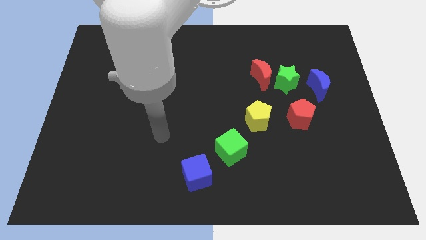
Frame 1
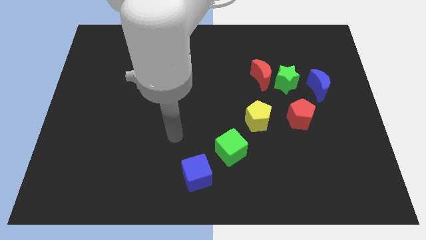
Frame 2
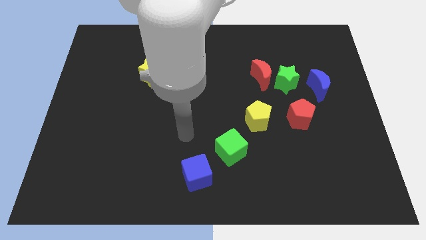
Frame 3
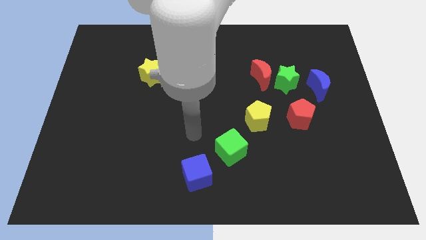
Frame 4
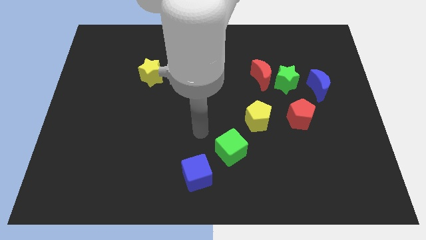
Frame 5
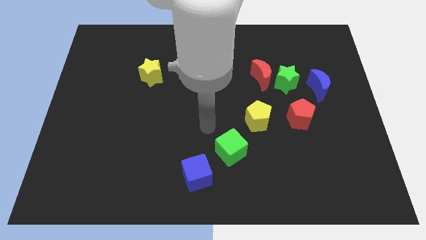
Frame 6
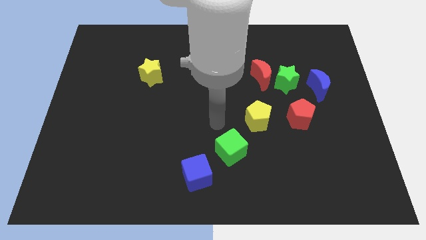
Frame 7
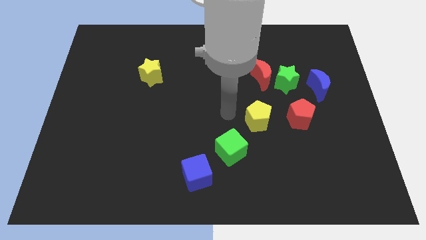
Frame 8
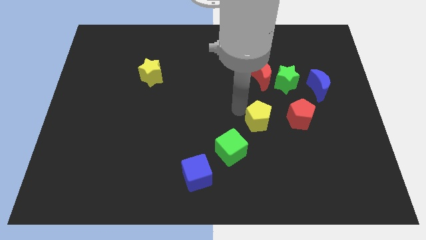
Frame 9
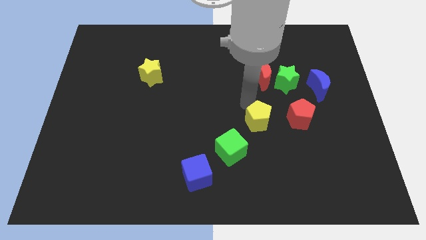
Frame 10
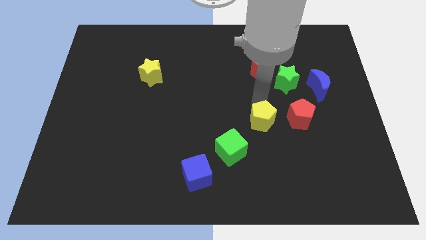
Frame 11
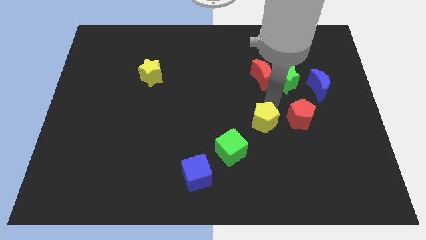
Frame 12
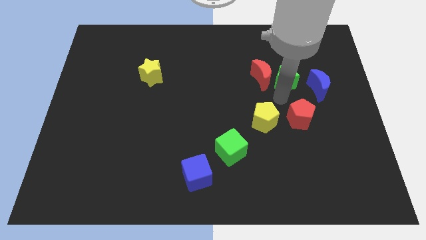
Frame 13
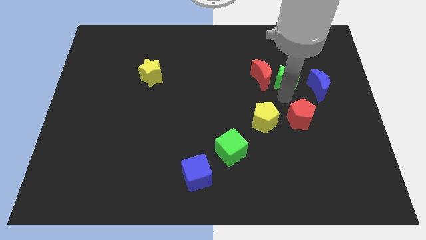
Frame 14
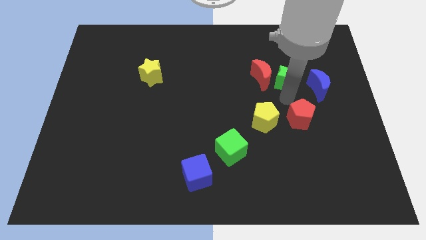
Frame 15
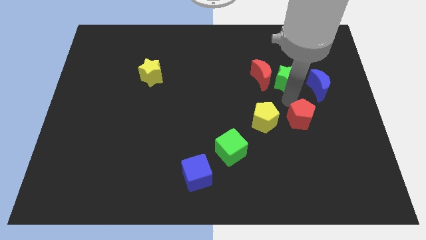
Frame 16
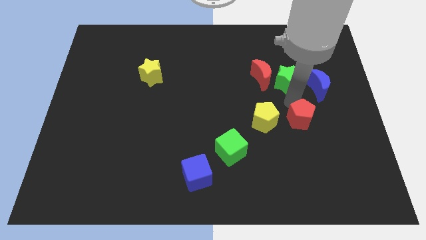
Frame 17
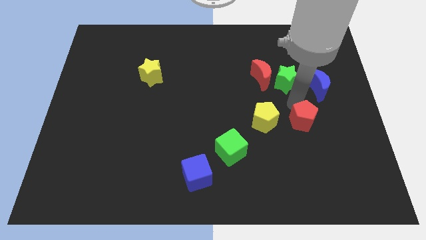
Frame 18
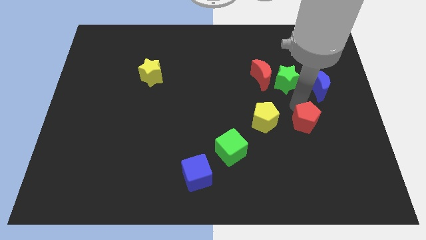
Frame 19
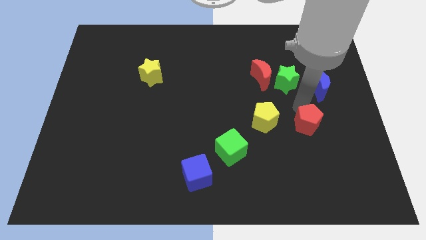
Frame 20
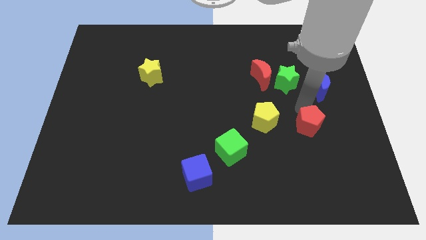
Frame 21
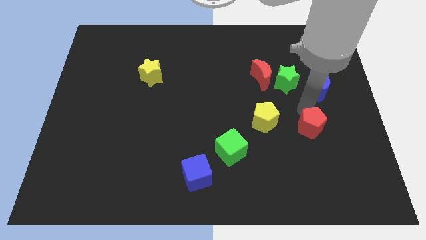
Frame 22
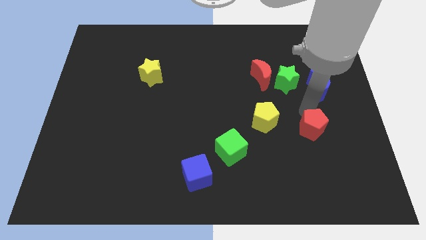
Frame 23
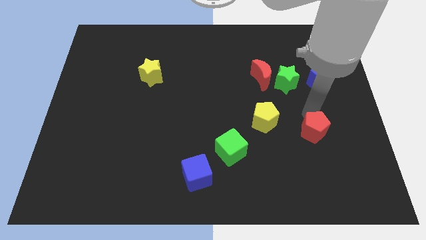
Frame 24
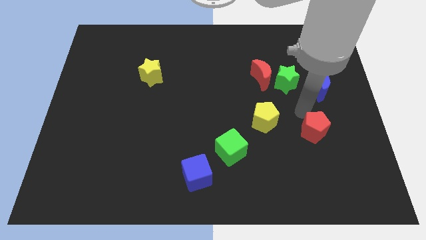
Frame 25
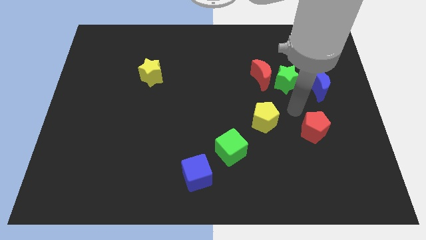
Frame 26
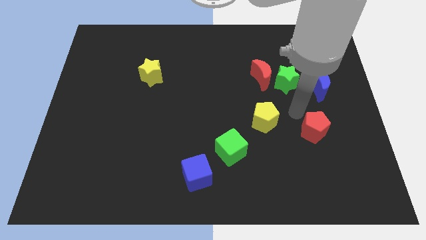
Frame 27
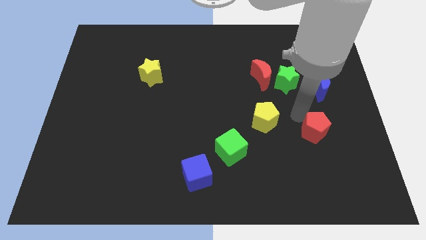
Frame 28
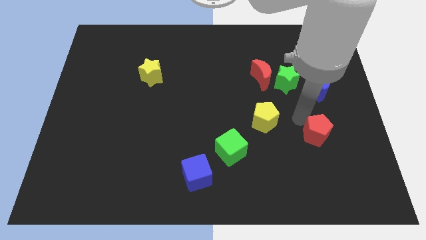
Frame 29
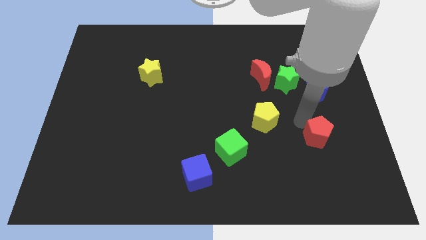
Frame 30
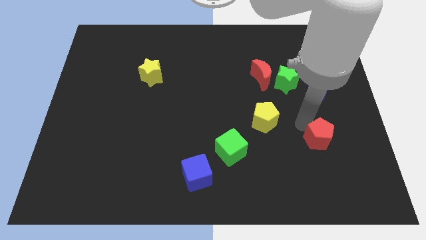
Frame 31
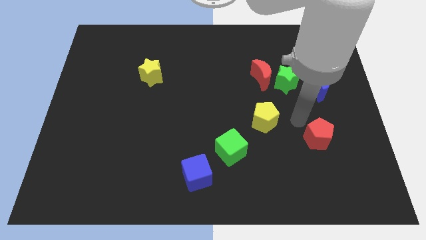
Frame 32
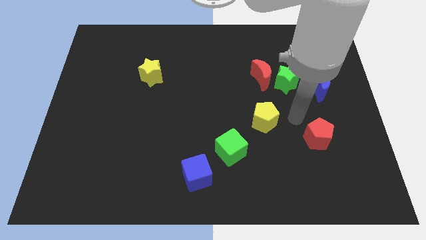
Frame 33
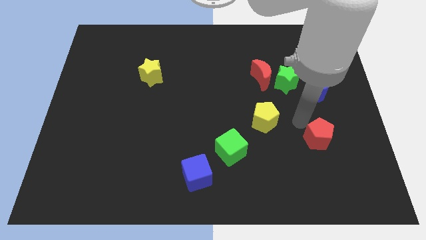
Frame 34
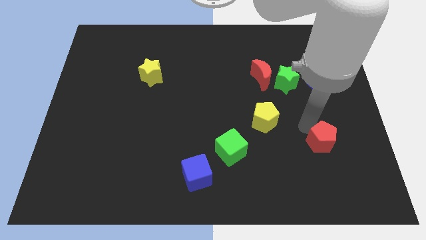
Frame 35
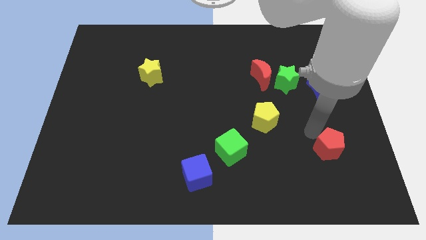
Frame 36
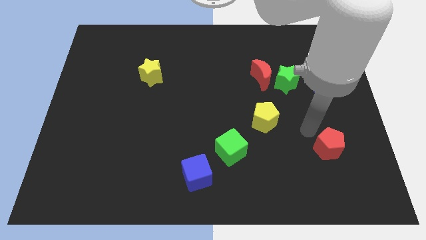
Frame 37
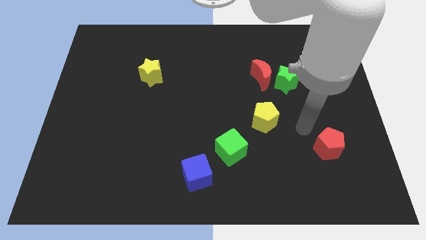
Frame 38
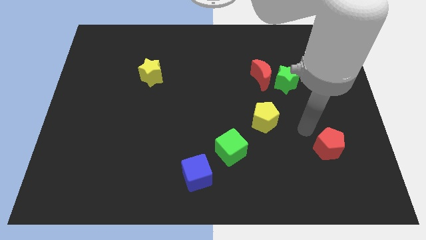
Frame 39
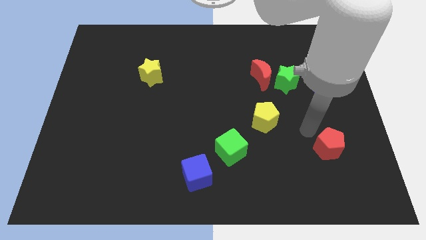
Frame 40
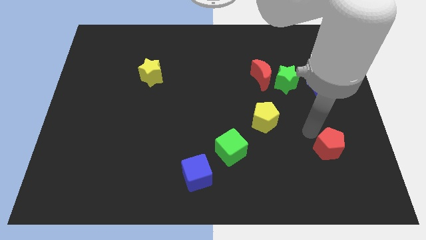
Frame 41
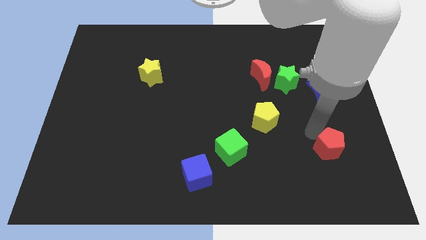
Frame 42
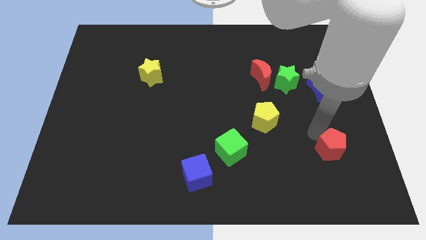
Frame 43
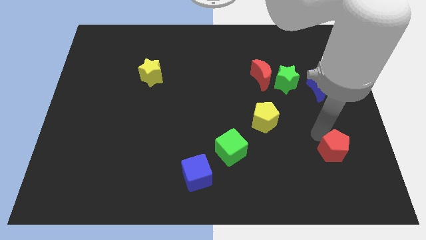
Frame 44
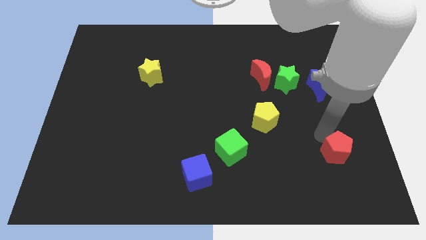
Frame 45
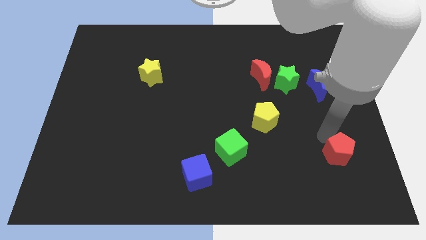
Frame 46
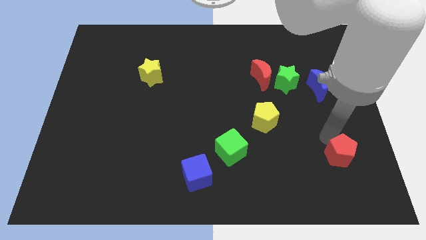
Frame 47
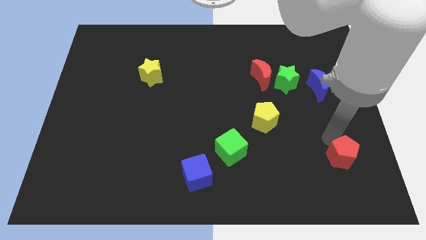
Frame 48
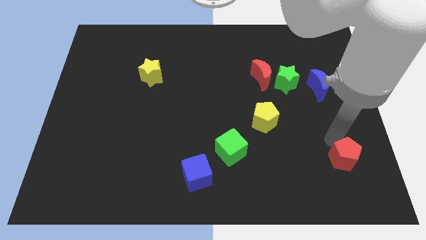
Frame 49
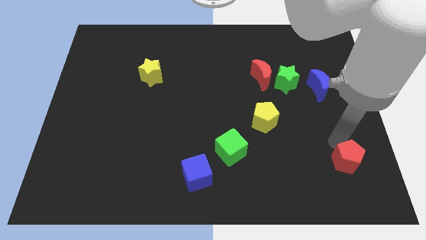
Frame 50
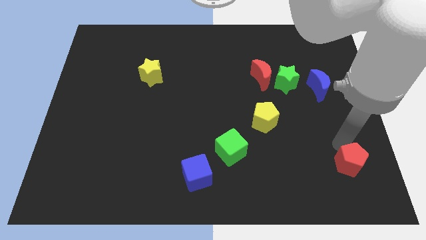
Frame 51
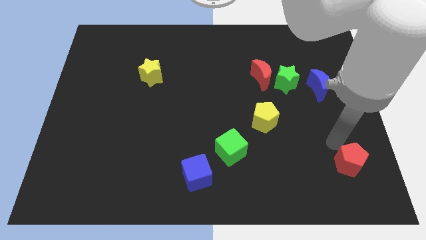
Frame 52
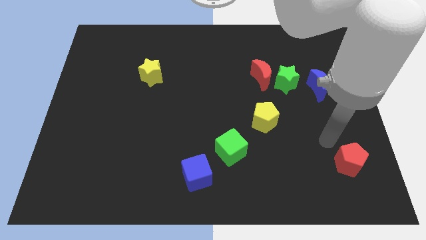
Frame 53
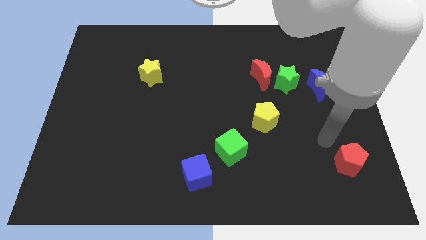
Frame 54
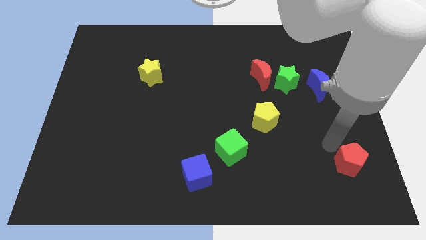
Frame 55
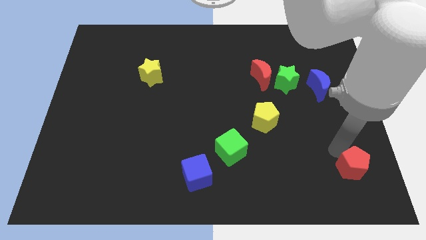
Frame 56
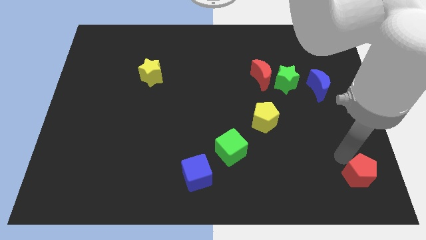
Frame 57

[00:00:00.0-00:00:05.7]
put the red pentagon to the bottom right

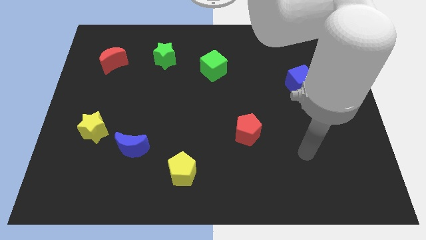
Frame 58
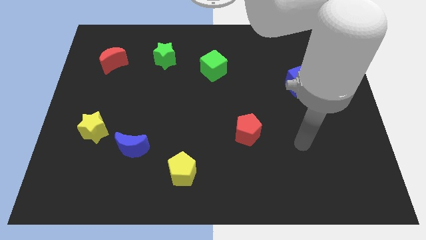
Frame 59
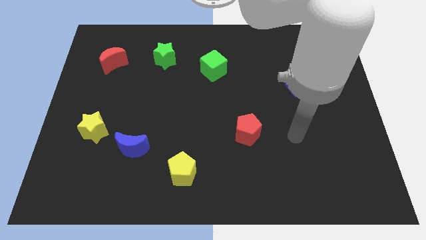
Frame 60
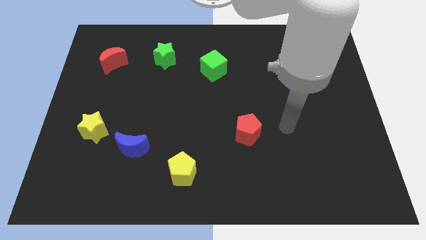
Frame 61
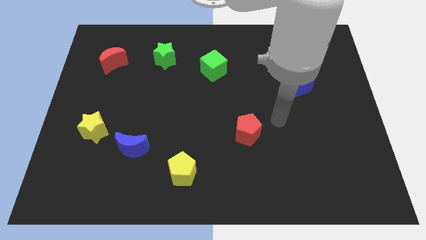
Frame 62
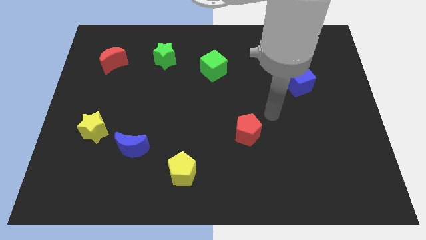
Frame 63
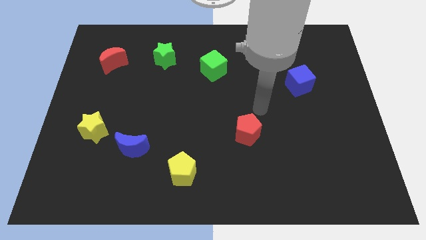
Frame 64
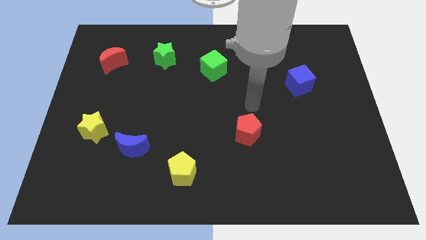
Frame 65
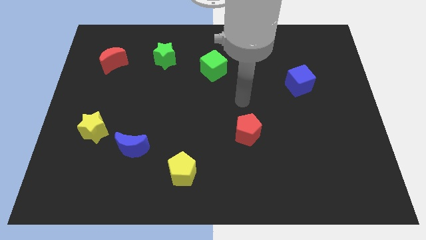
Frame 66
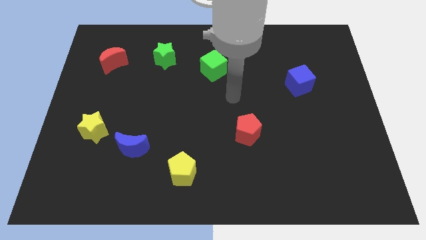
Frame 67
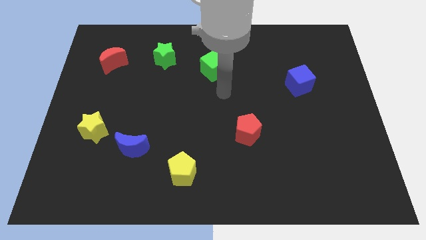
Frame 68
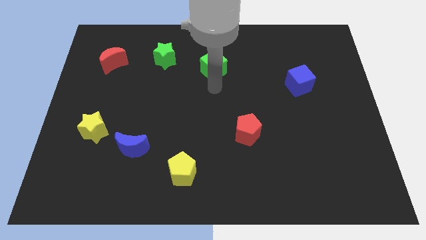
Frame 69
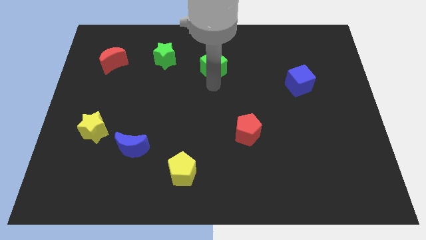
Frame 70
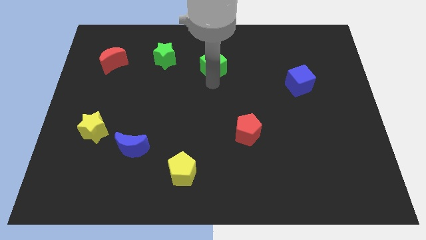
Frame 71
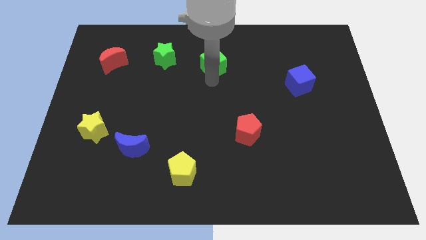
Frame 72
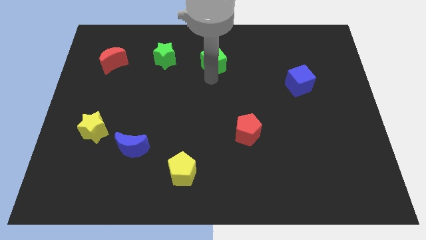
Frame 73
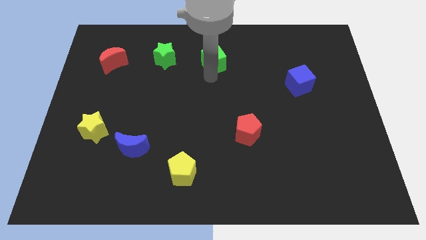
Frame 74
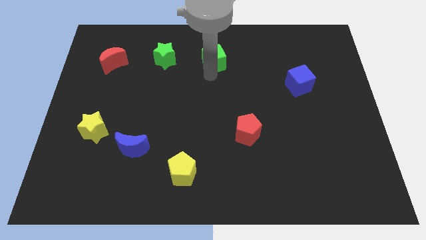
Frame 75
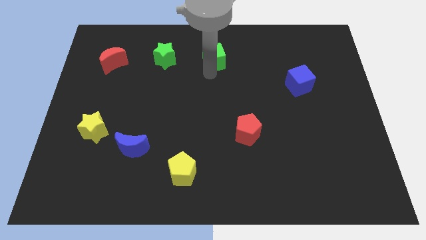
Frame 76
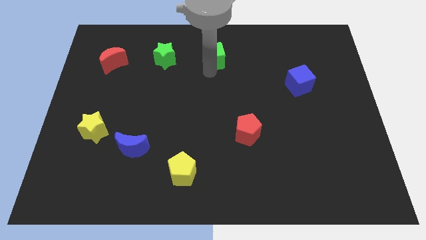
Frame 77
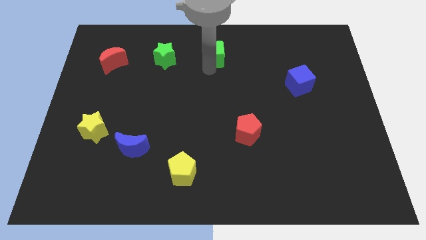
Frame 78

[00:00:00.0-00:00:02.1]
push the green cube to the top
